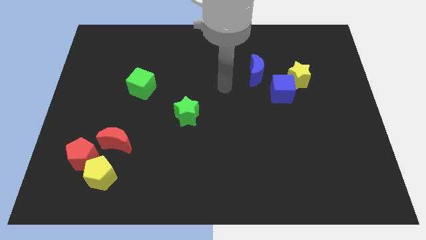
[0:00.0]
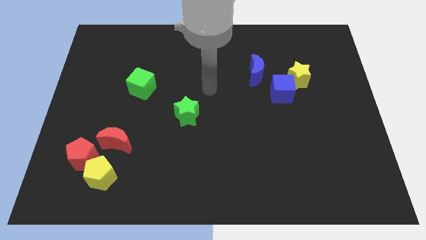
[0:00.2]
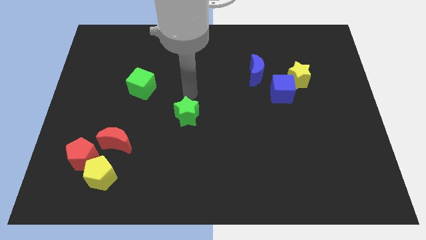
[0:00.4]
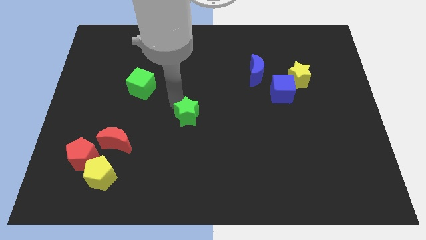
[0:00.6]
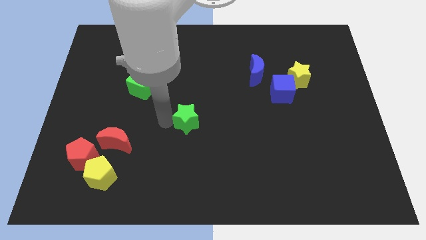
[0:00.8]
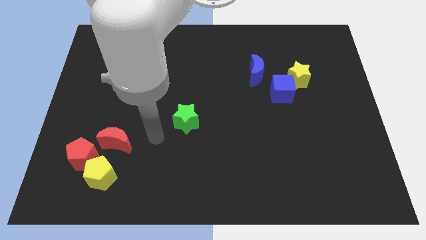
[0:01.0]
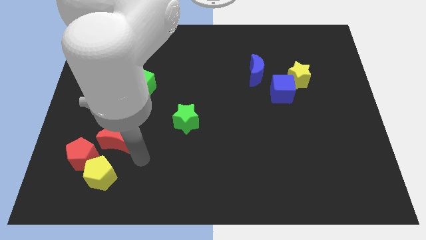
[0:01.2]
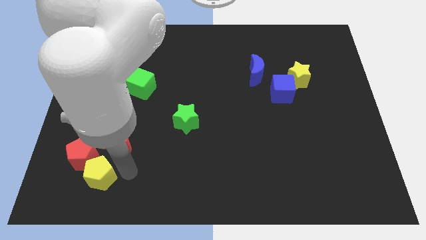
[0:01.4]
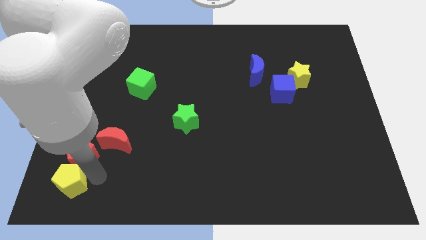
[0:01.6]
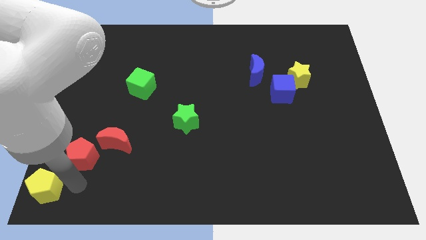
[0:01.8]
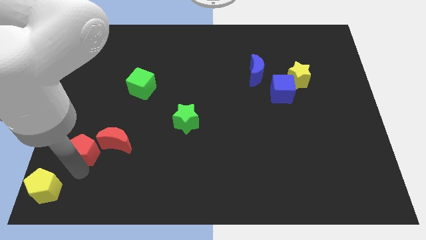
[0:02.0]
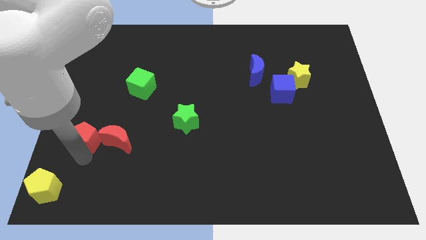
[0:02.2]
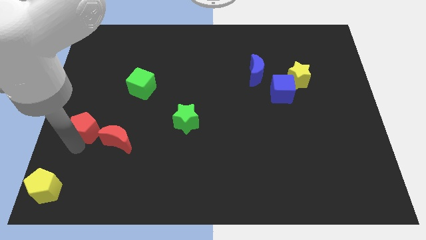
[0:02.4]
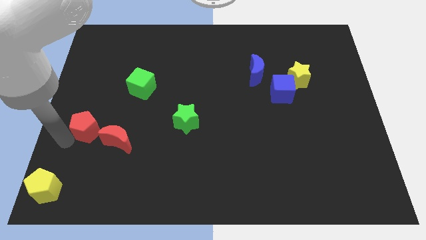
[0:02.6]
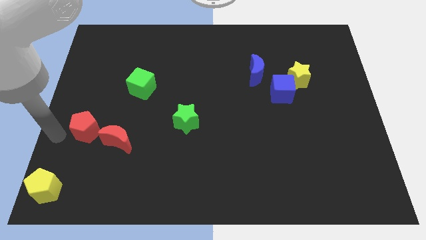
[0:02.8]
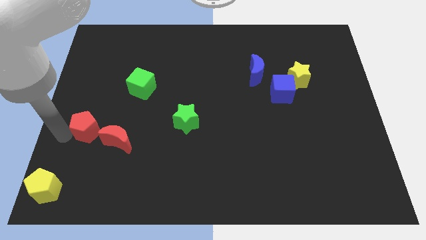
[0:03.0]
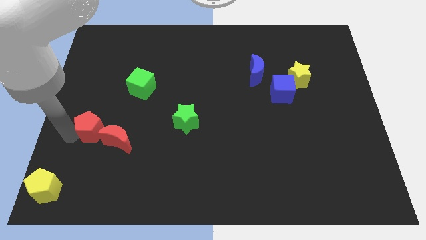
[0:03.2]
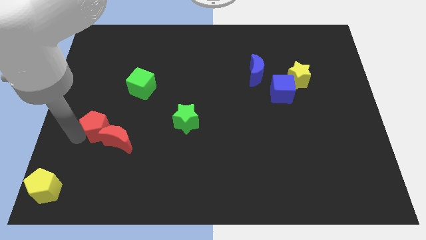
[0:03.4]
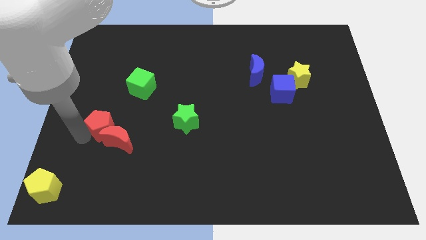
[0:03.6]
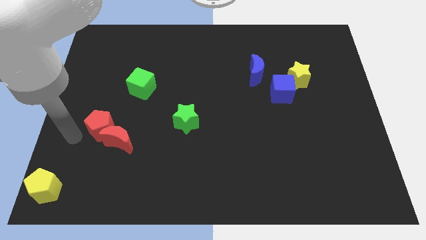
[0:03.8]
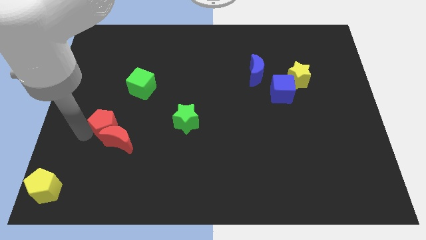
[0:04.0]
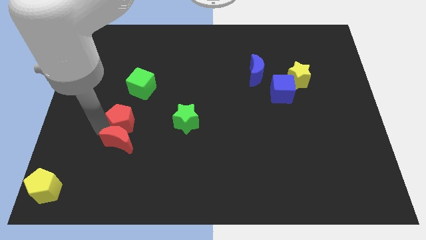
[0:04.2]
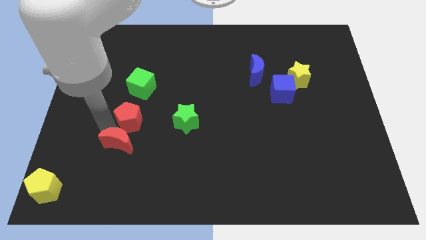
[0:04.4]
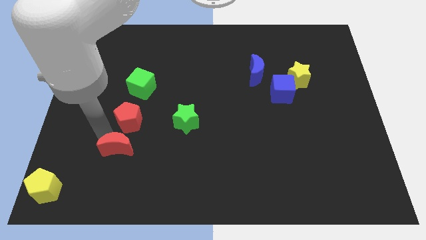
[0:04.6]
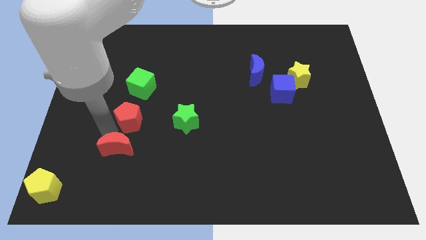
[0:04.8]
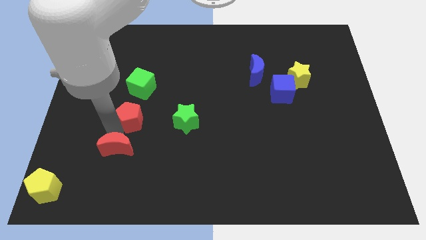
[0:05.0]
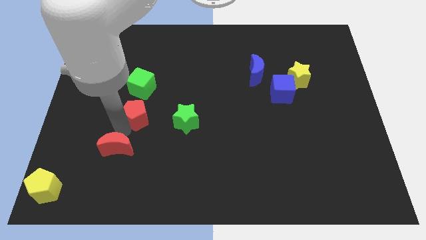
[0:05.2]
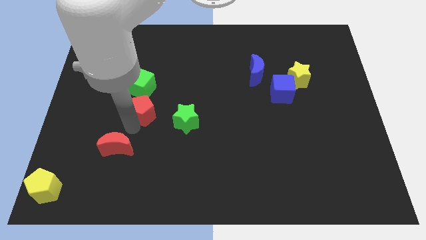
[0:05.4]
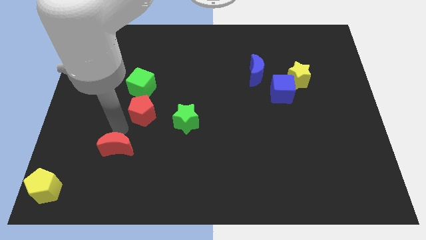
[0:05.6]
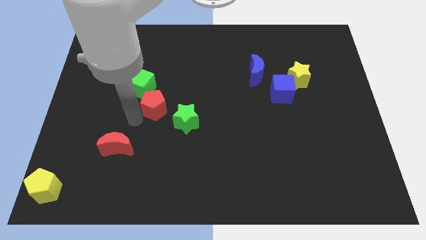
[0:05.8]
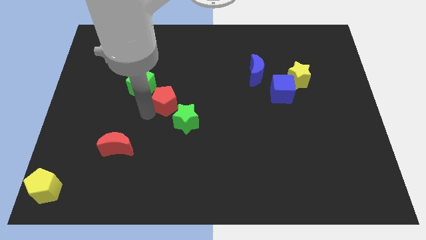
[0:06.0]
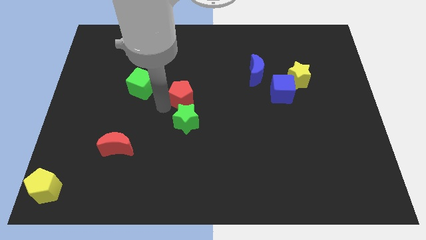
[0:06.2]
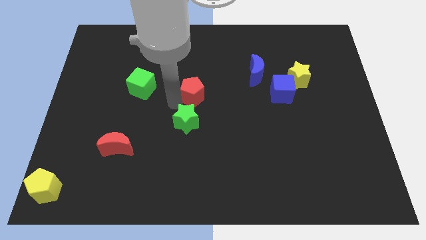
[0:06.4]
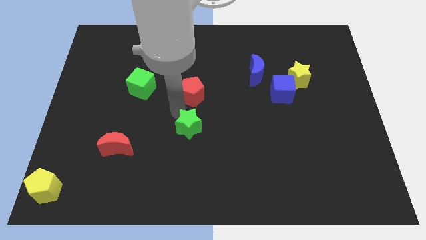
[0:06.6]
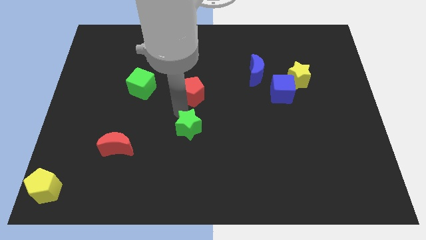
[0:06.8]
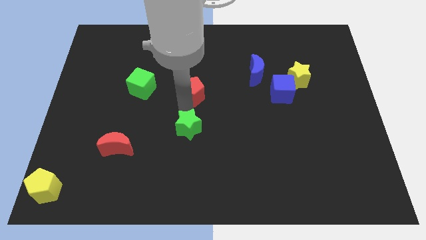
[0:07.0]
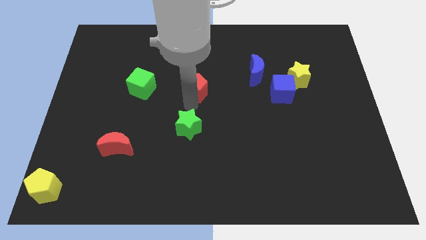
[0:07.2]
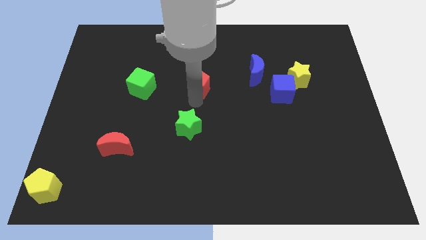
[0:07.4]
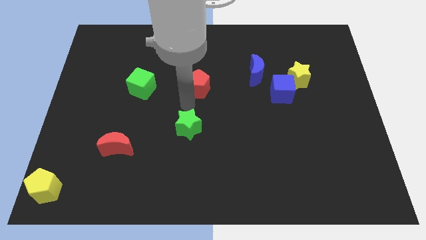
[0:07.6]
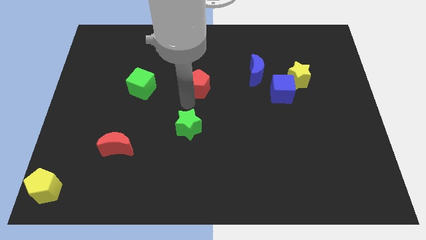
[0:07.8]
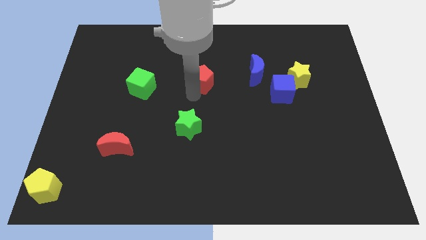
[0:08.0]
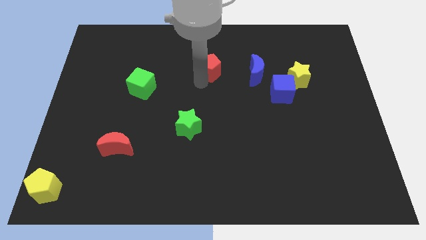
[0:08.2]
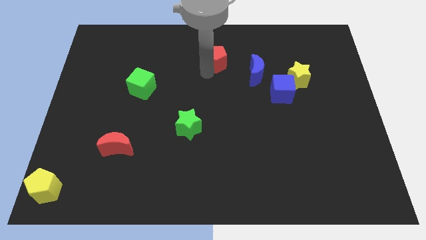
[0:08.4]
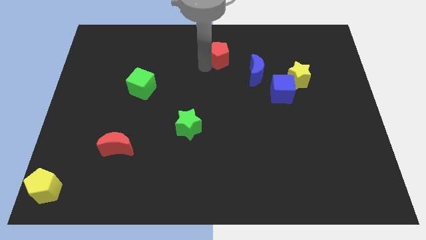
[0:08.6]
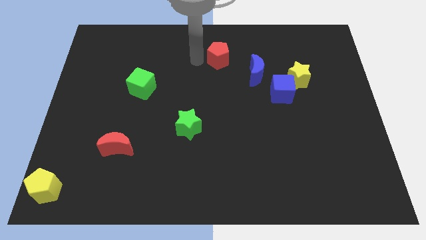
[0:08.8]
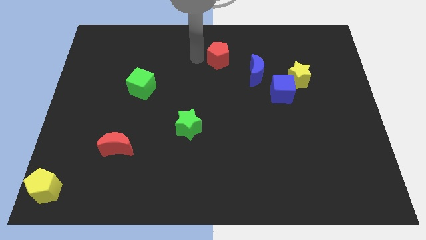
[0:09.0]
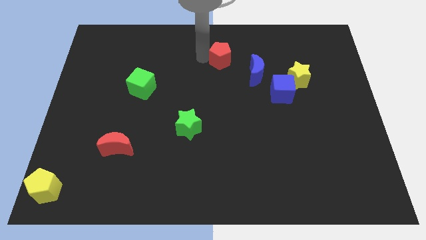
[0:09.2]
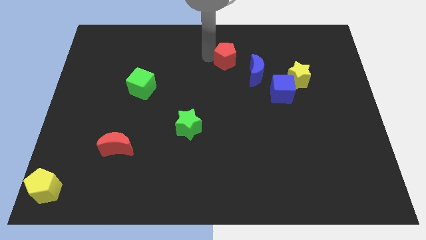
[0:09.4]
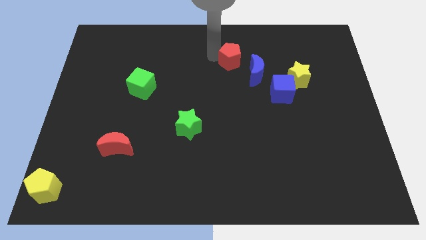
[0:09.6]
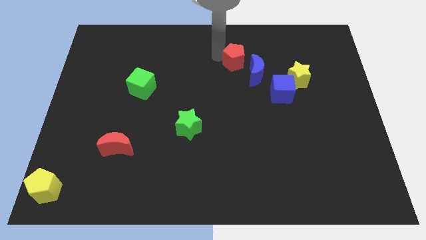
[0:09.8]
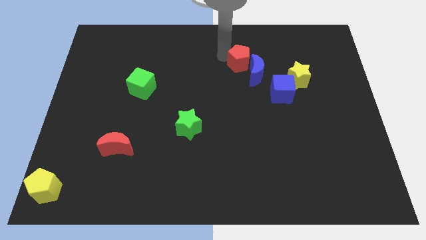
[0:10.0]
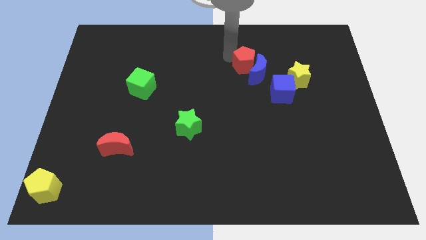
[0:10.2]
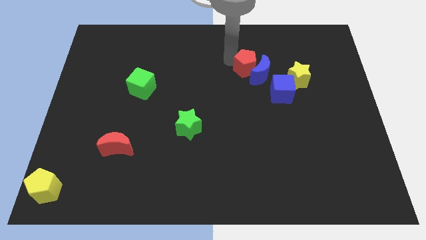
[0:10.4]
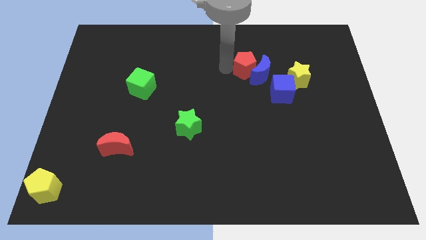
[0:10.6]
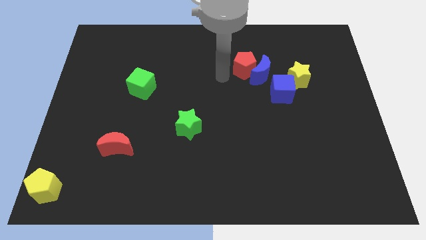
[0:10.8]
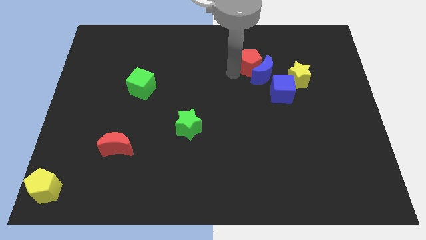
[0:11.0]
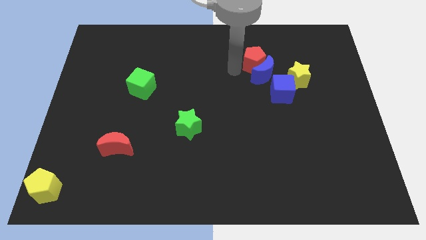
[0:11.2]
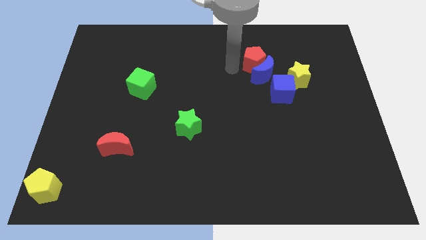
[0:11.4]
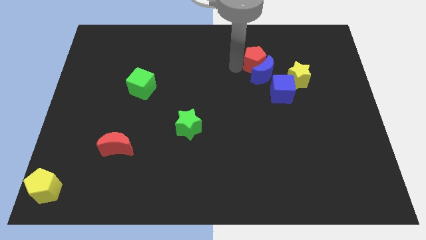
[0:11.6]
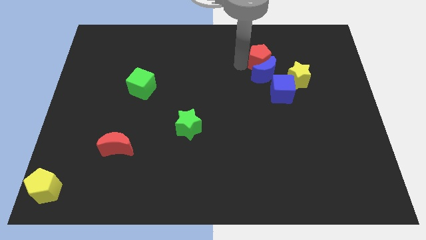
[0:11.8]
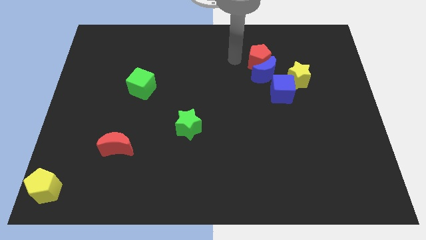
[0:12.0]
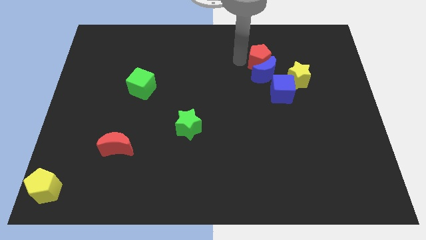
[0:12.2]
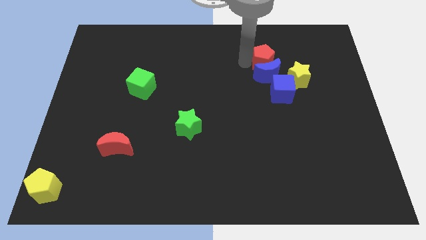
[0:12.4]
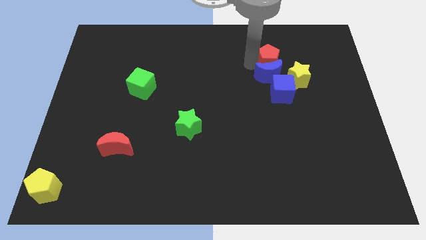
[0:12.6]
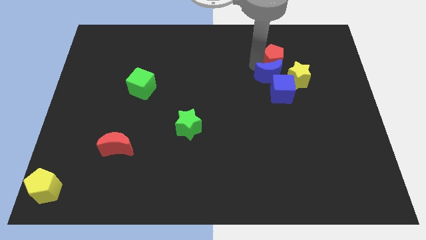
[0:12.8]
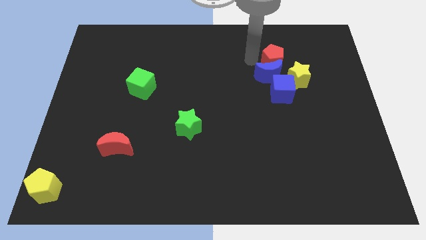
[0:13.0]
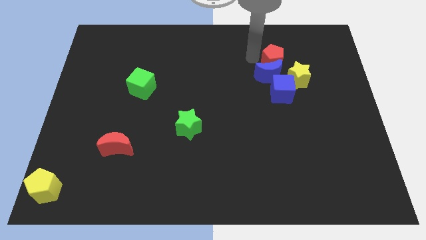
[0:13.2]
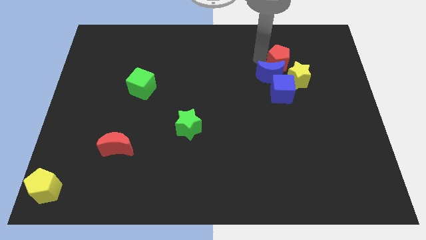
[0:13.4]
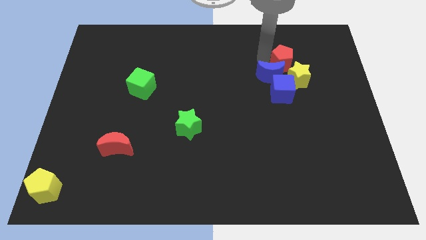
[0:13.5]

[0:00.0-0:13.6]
slide the red pentagon to the right side of the blue moon
